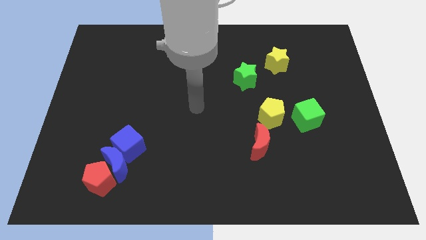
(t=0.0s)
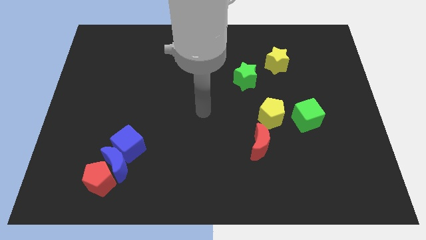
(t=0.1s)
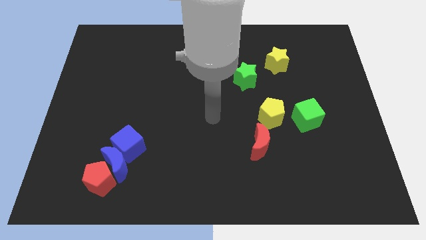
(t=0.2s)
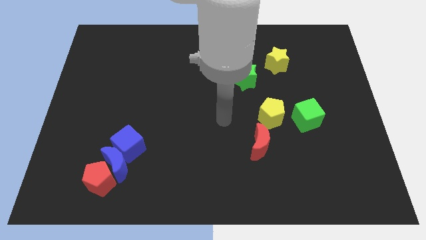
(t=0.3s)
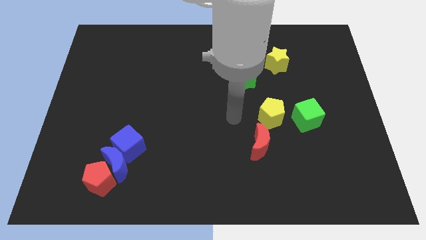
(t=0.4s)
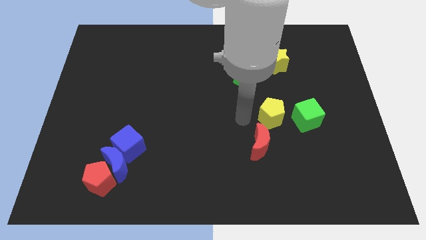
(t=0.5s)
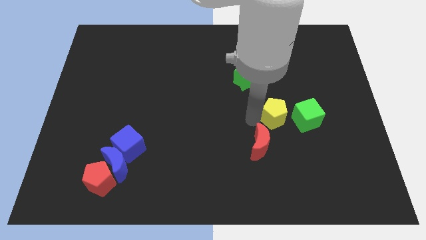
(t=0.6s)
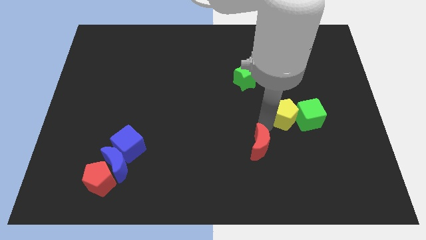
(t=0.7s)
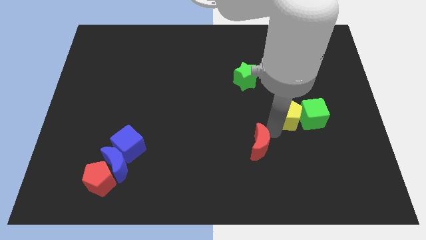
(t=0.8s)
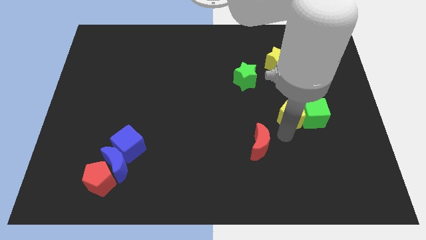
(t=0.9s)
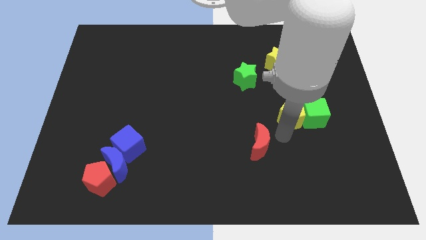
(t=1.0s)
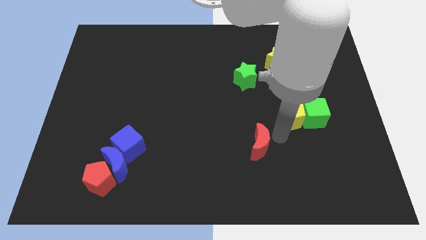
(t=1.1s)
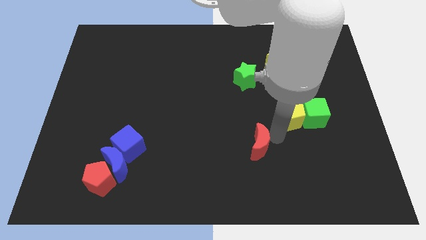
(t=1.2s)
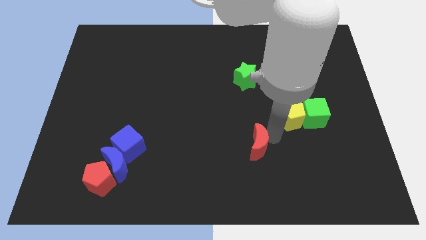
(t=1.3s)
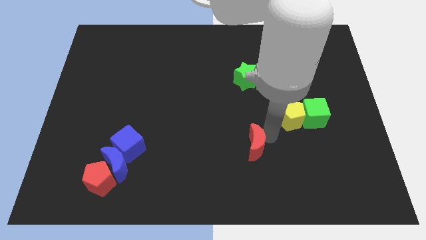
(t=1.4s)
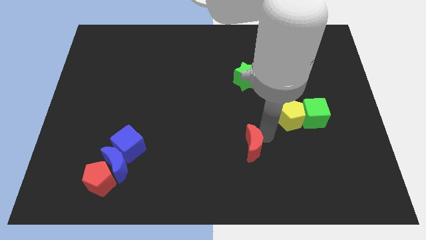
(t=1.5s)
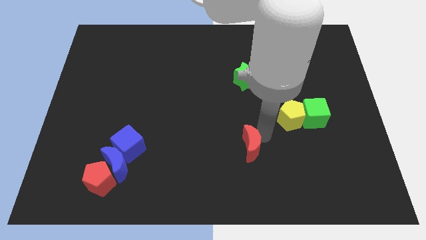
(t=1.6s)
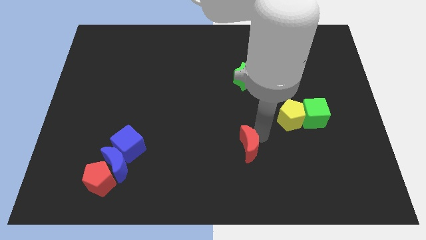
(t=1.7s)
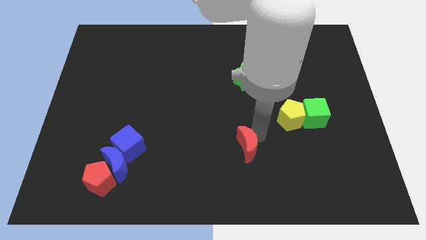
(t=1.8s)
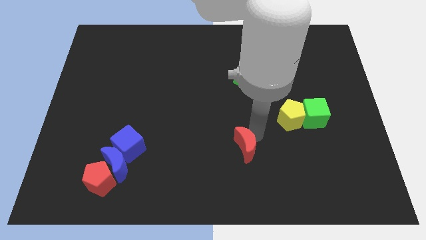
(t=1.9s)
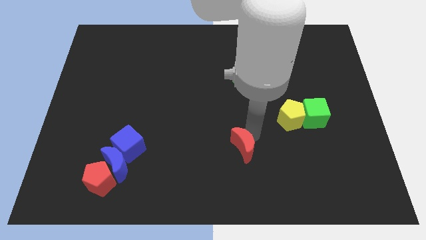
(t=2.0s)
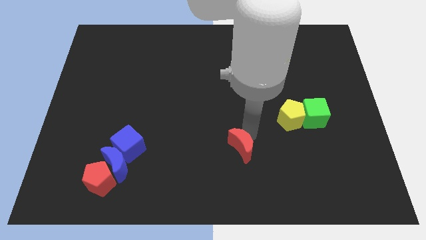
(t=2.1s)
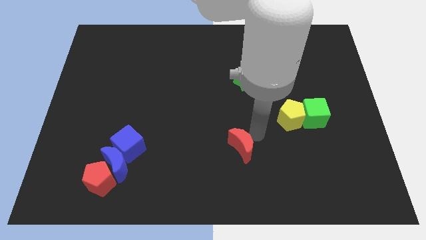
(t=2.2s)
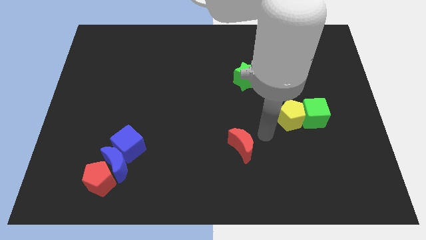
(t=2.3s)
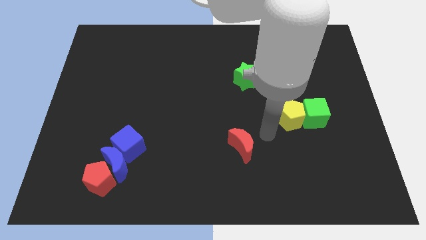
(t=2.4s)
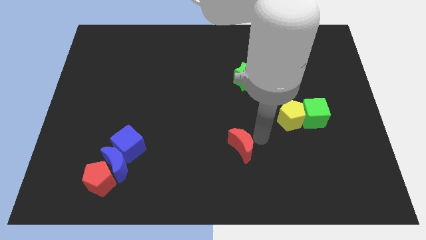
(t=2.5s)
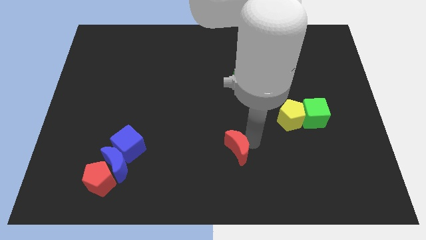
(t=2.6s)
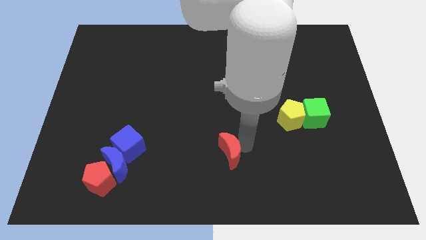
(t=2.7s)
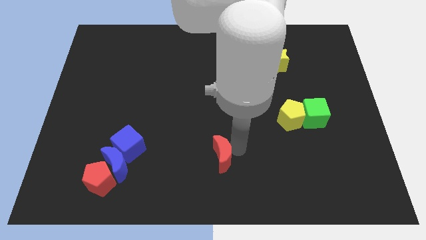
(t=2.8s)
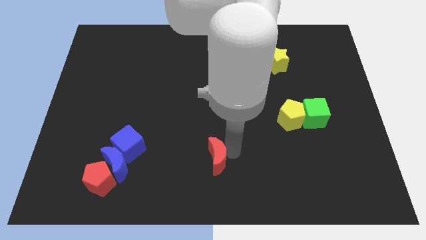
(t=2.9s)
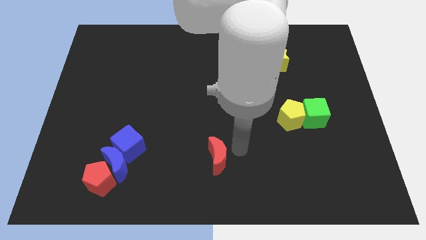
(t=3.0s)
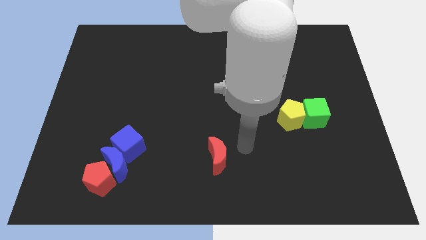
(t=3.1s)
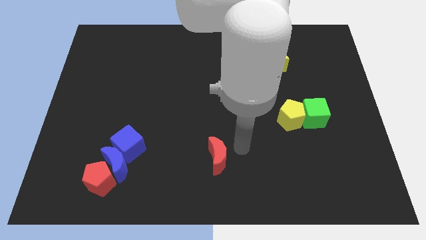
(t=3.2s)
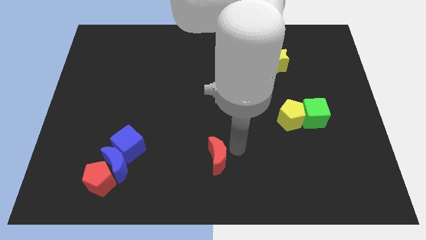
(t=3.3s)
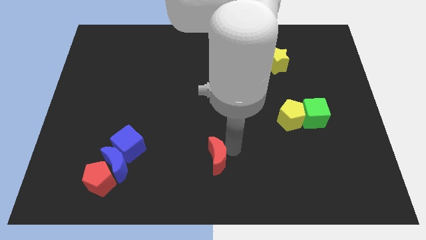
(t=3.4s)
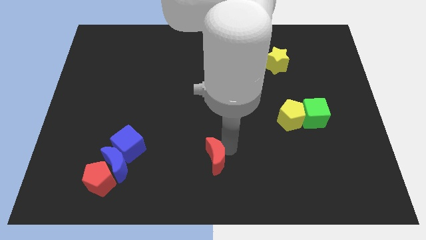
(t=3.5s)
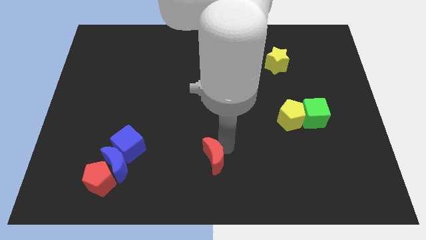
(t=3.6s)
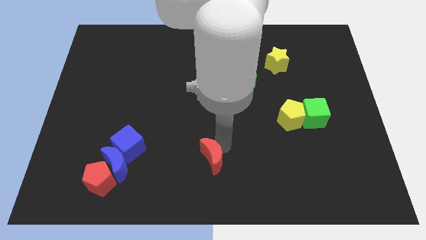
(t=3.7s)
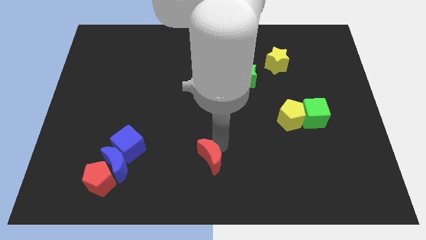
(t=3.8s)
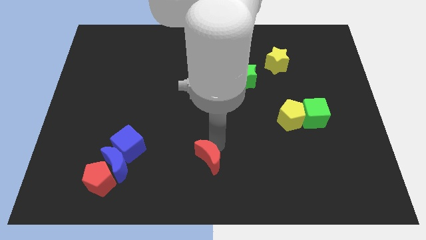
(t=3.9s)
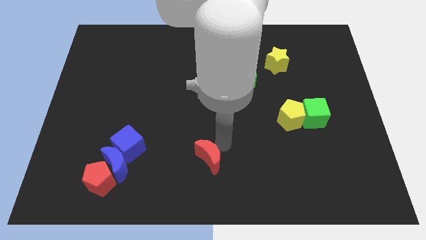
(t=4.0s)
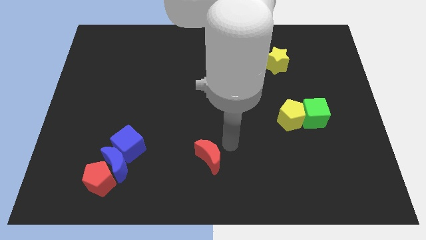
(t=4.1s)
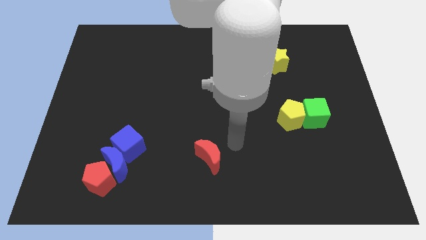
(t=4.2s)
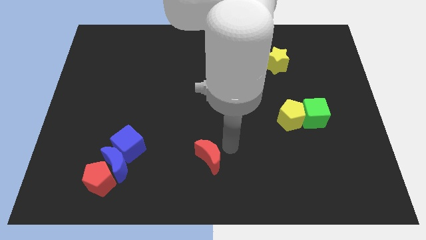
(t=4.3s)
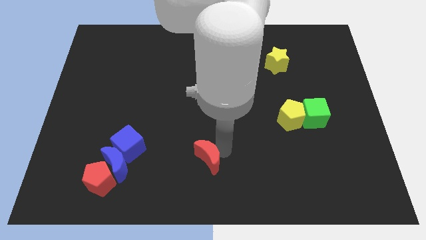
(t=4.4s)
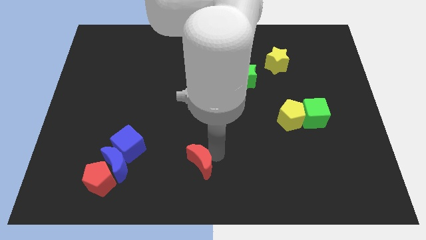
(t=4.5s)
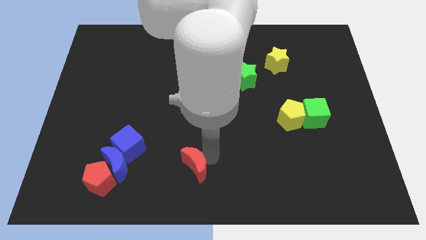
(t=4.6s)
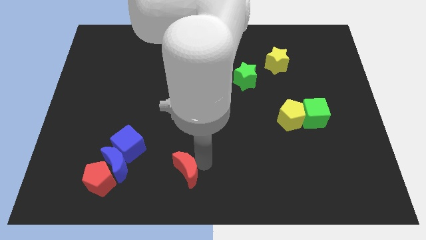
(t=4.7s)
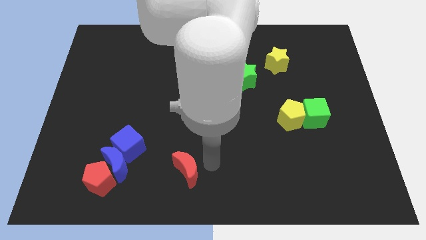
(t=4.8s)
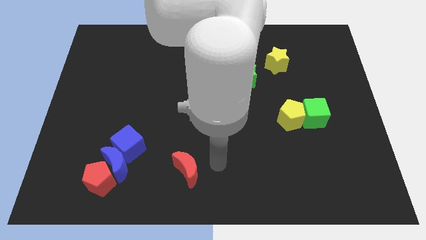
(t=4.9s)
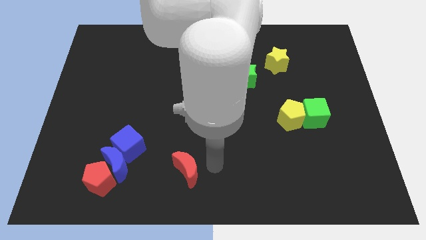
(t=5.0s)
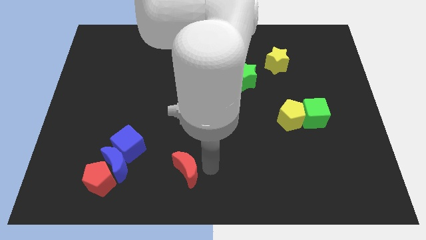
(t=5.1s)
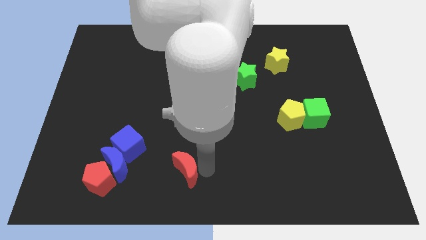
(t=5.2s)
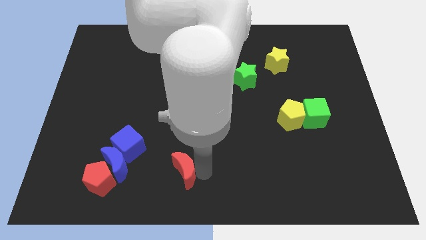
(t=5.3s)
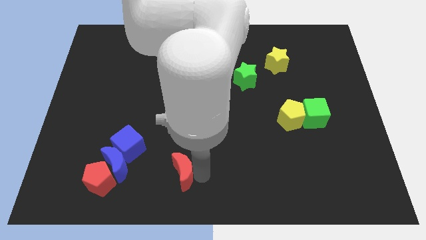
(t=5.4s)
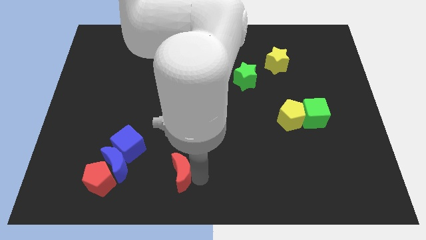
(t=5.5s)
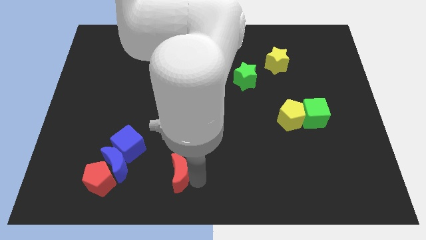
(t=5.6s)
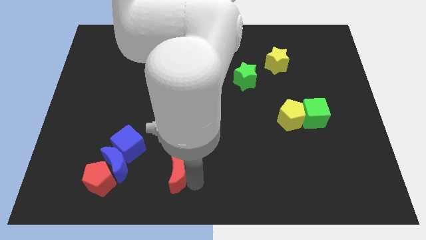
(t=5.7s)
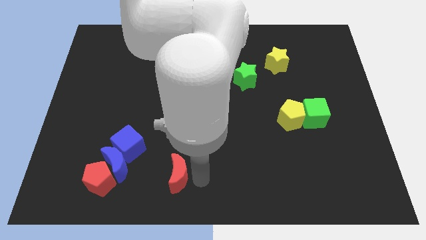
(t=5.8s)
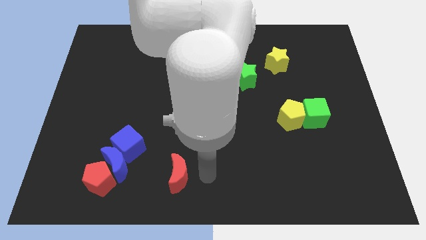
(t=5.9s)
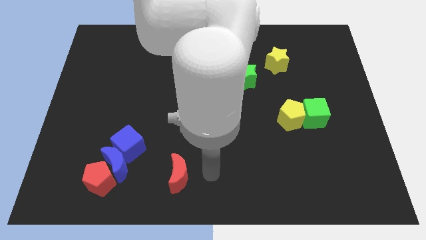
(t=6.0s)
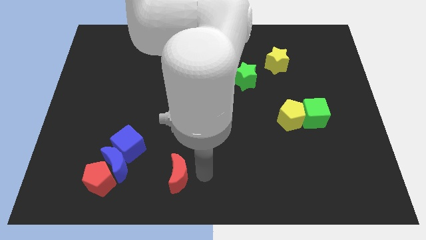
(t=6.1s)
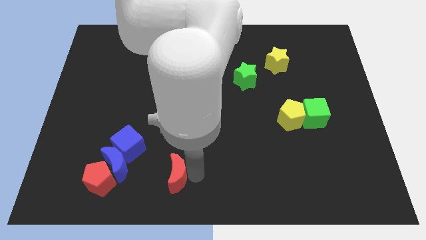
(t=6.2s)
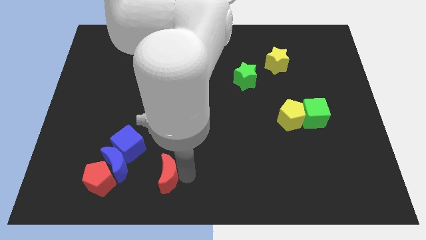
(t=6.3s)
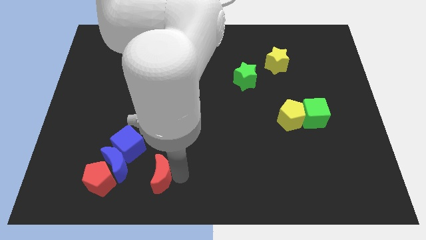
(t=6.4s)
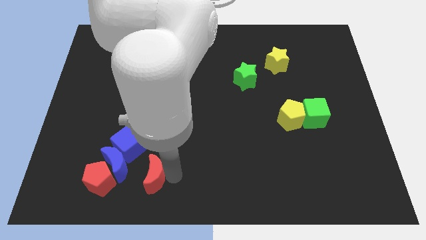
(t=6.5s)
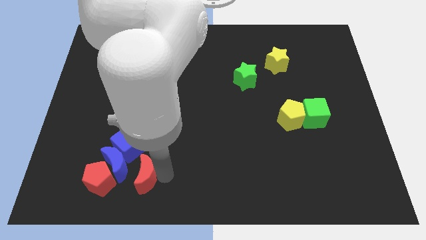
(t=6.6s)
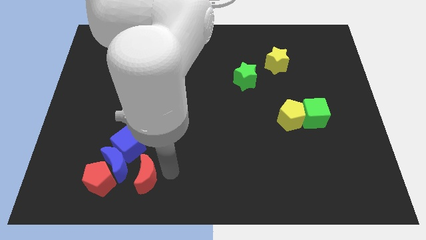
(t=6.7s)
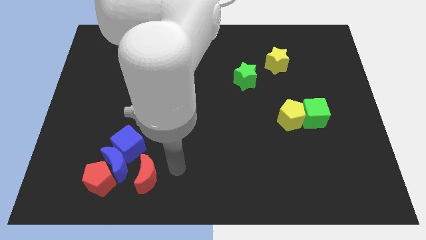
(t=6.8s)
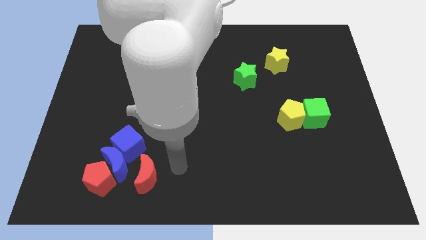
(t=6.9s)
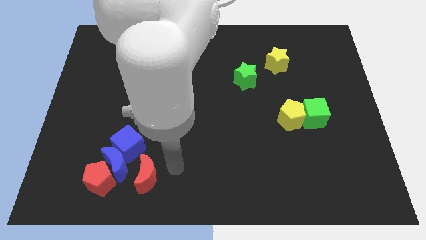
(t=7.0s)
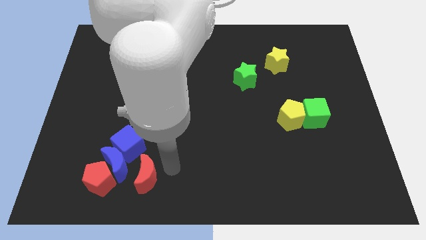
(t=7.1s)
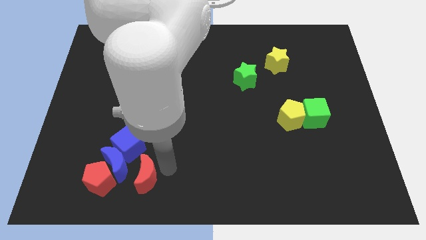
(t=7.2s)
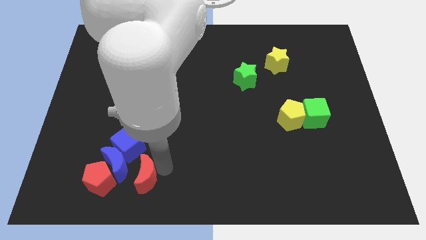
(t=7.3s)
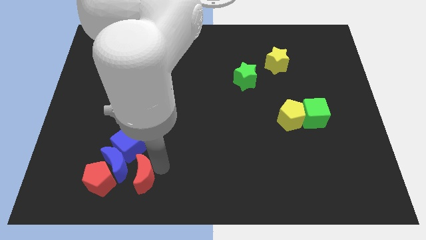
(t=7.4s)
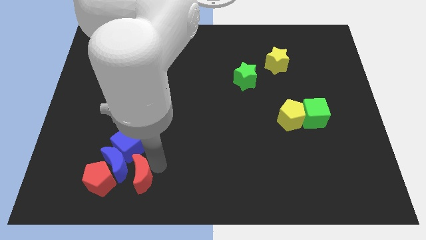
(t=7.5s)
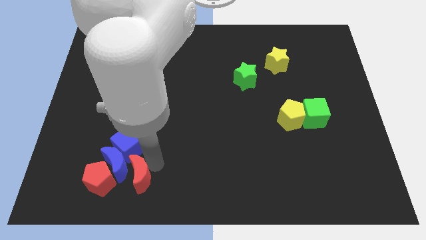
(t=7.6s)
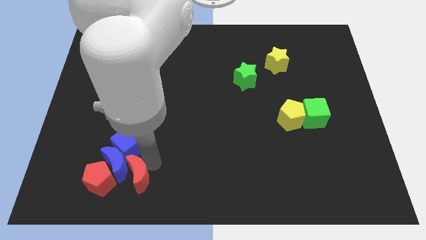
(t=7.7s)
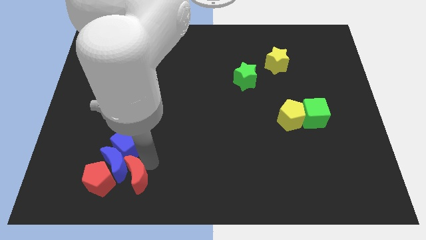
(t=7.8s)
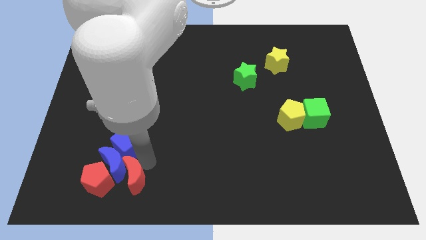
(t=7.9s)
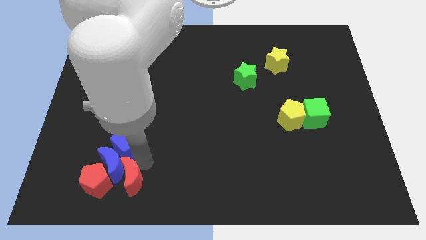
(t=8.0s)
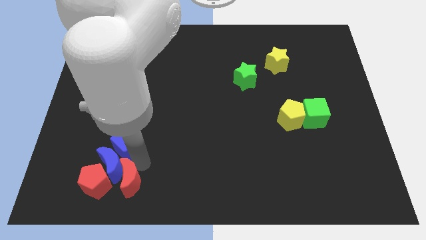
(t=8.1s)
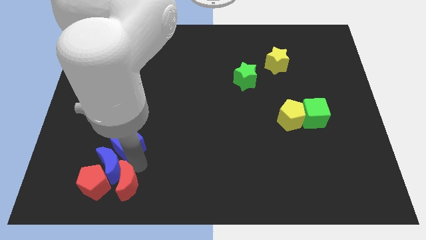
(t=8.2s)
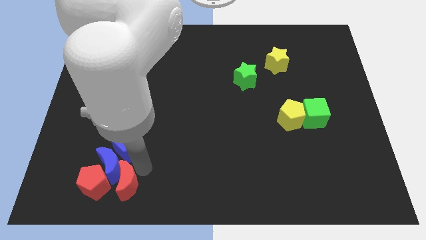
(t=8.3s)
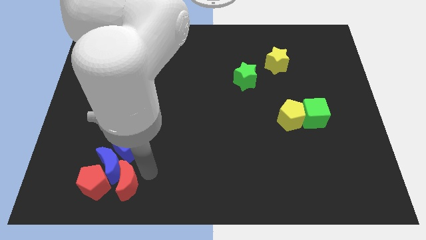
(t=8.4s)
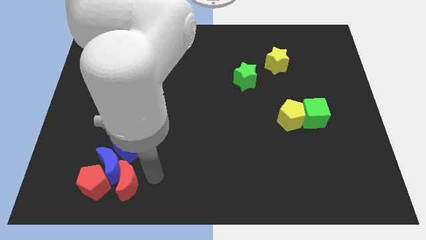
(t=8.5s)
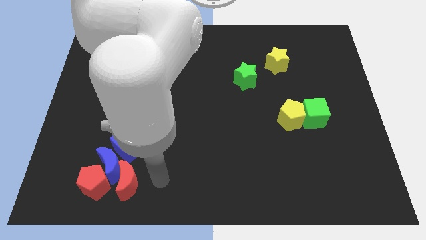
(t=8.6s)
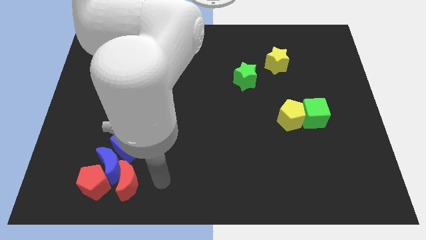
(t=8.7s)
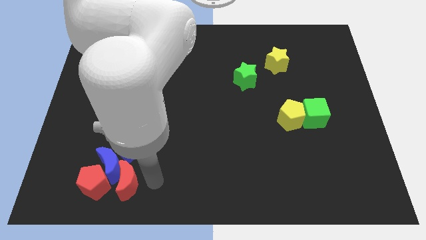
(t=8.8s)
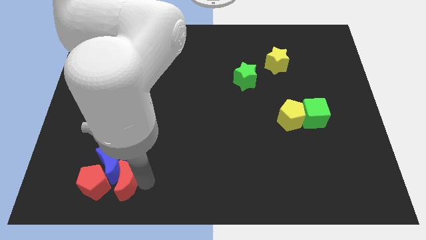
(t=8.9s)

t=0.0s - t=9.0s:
put the red moon towards the red pentagon
